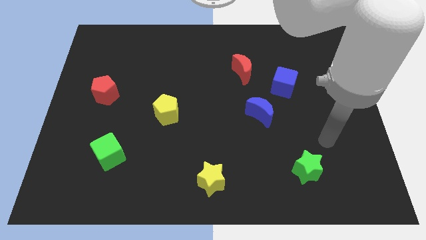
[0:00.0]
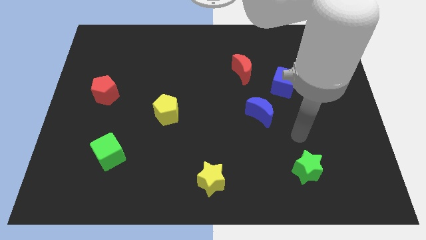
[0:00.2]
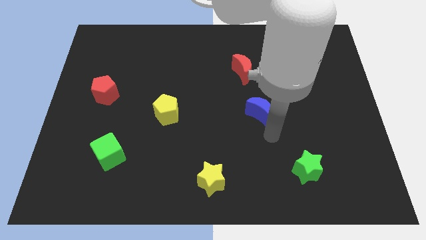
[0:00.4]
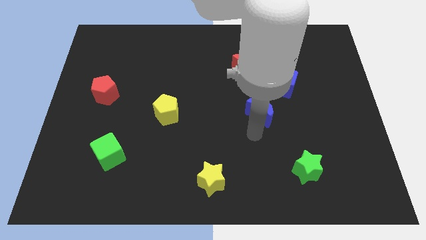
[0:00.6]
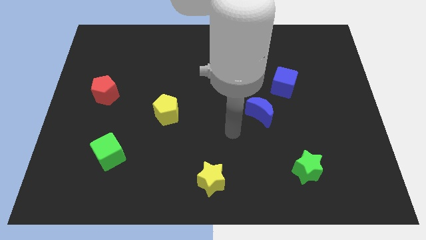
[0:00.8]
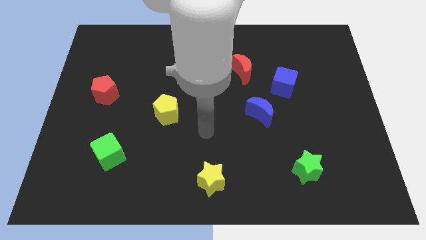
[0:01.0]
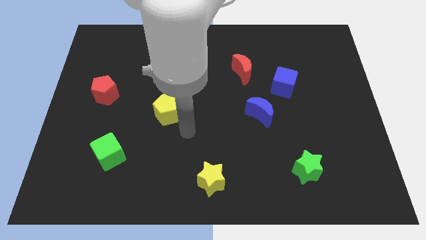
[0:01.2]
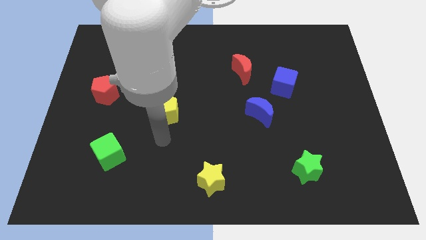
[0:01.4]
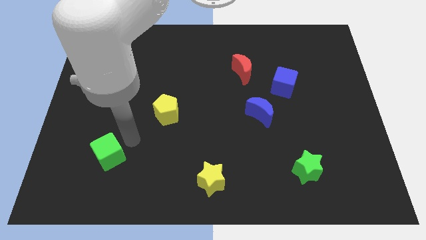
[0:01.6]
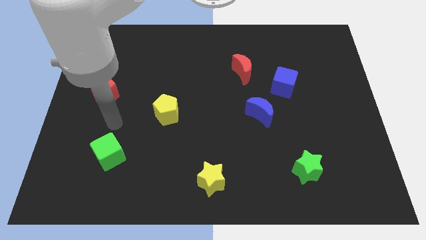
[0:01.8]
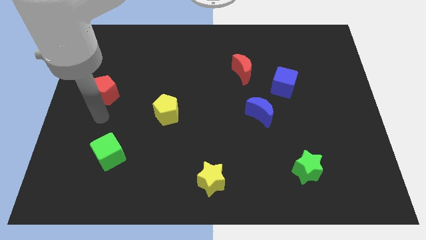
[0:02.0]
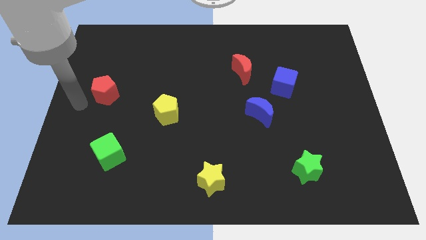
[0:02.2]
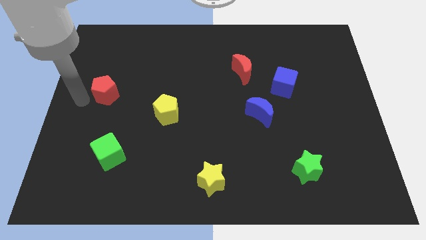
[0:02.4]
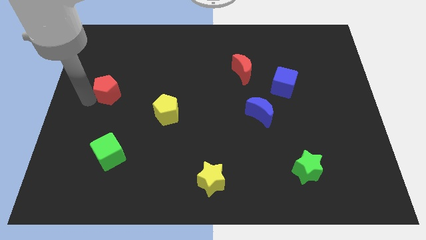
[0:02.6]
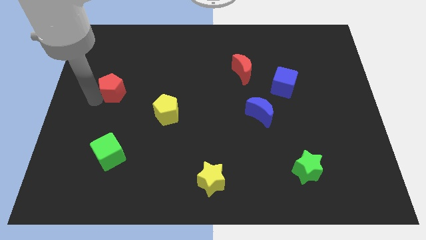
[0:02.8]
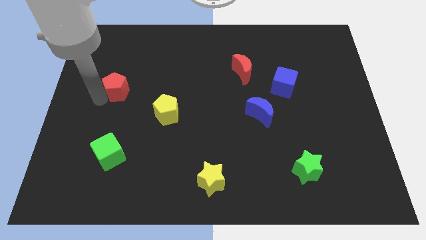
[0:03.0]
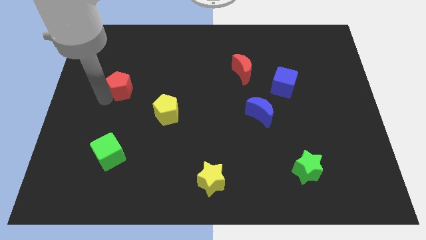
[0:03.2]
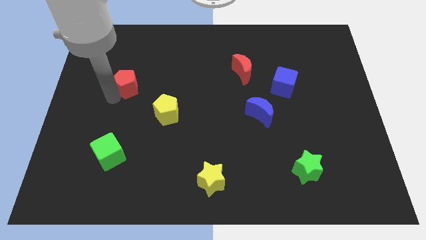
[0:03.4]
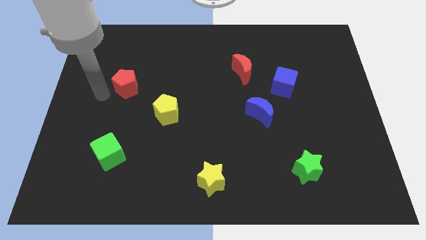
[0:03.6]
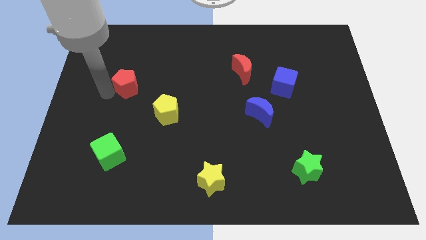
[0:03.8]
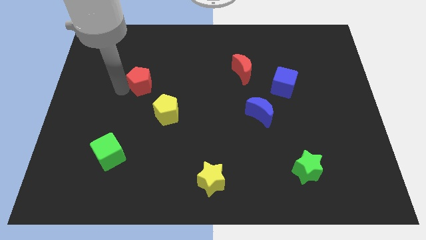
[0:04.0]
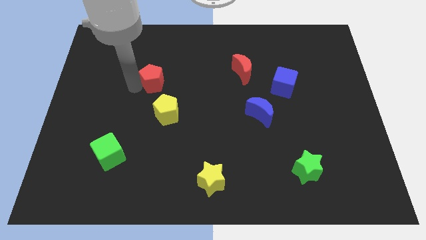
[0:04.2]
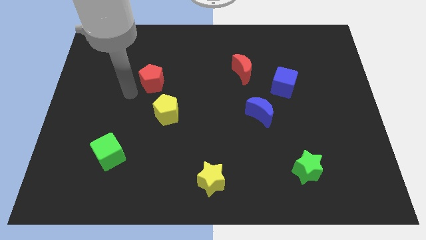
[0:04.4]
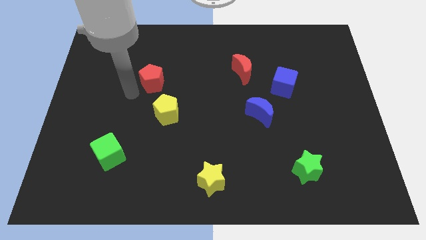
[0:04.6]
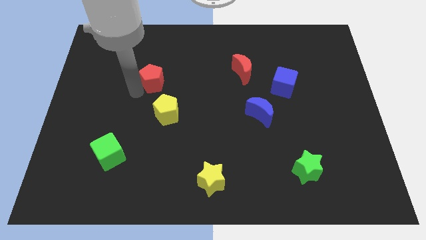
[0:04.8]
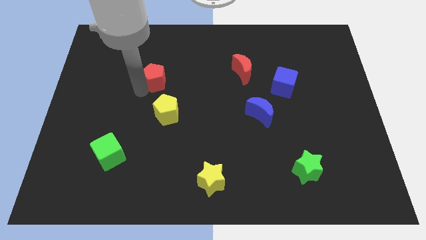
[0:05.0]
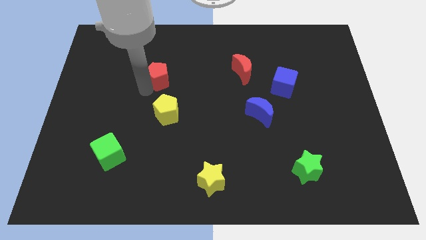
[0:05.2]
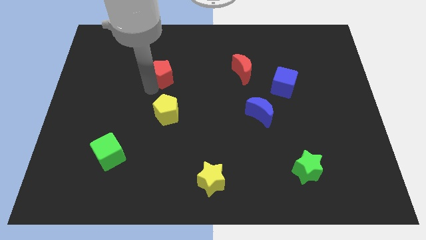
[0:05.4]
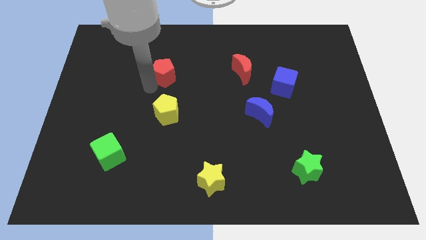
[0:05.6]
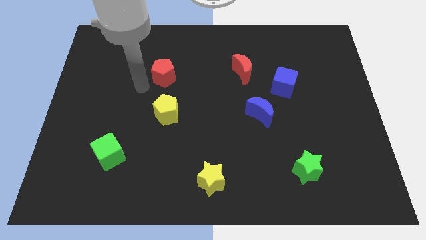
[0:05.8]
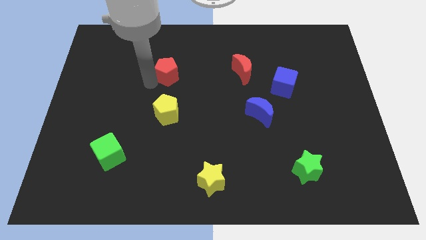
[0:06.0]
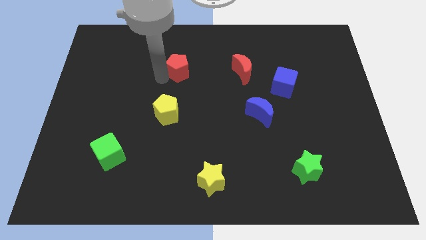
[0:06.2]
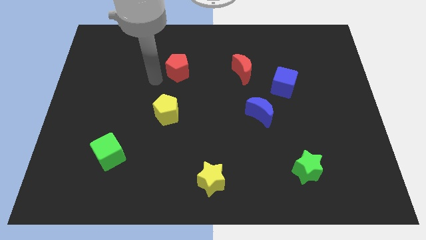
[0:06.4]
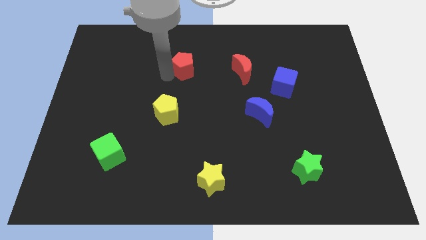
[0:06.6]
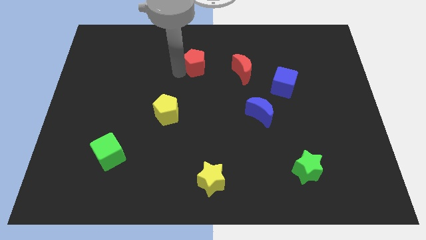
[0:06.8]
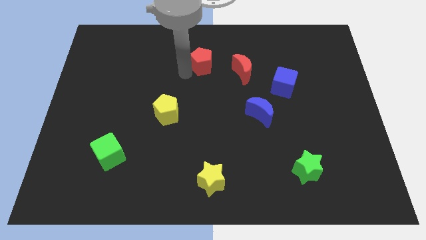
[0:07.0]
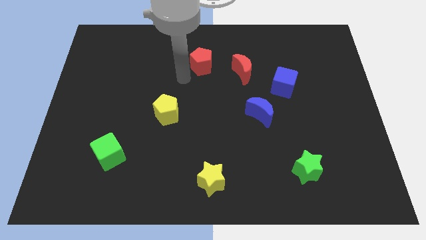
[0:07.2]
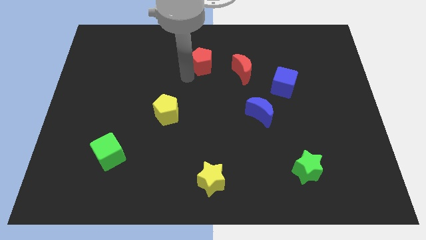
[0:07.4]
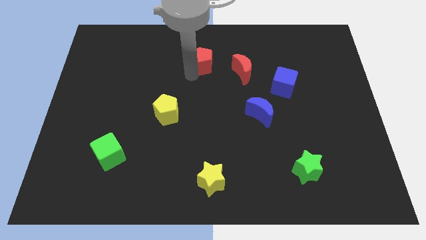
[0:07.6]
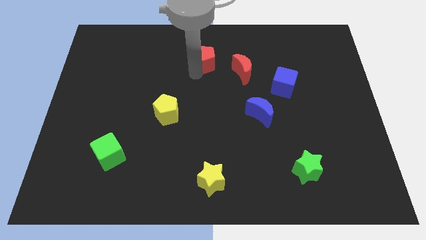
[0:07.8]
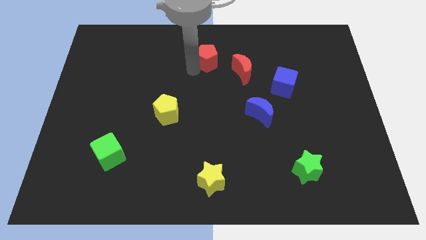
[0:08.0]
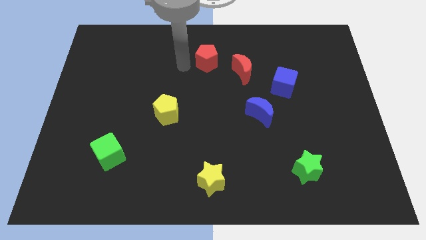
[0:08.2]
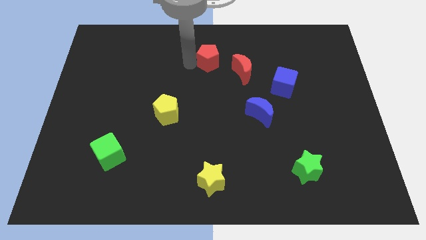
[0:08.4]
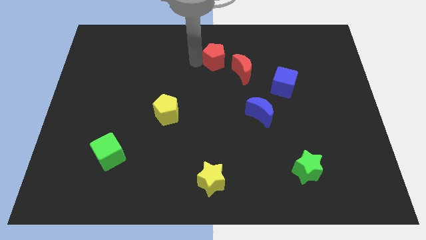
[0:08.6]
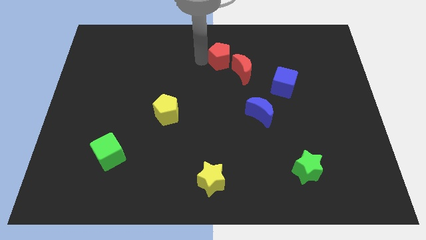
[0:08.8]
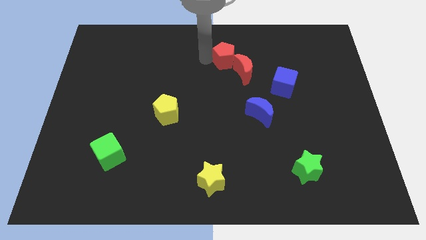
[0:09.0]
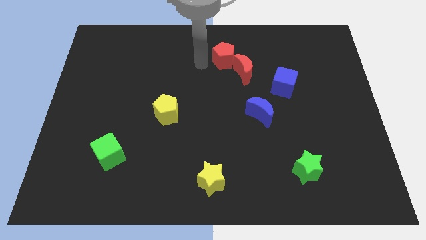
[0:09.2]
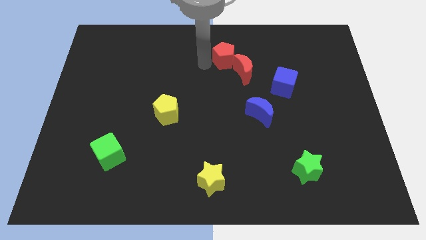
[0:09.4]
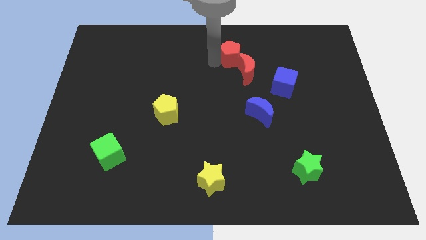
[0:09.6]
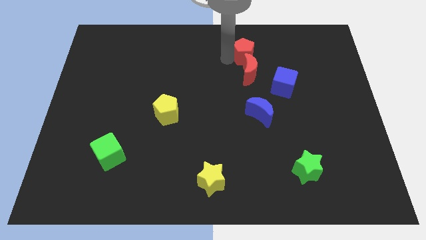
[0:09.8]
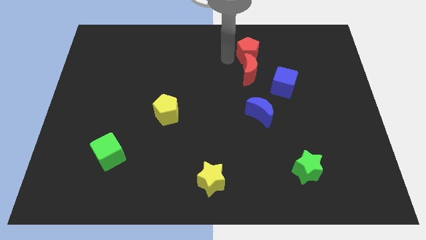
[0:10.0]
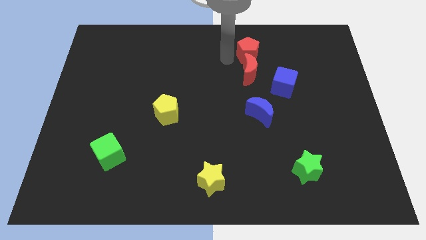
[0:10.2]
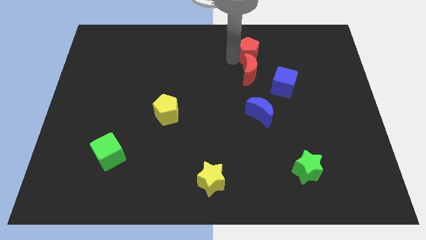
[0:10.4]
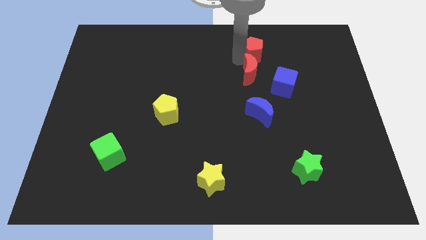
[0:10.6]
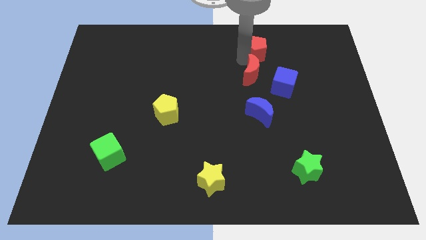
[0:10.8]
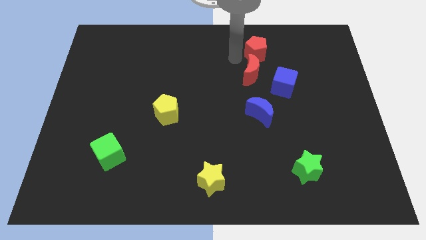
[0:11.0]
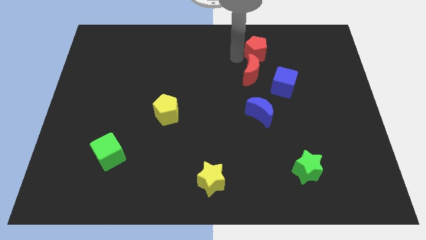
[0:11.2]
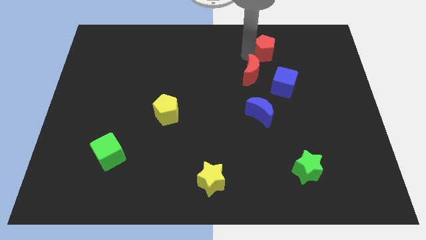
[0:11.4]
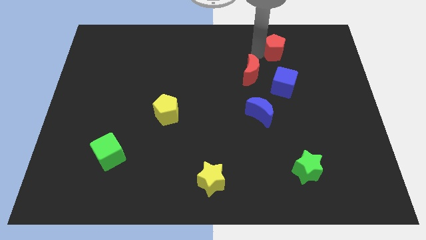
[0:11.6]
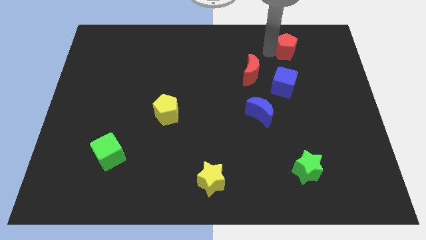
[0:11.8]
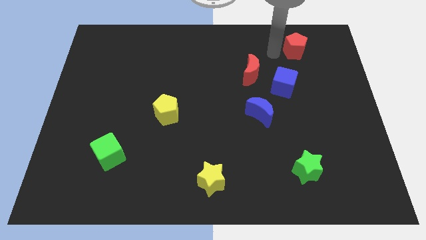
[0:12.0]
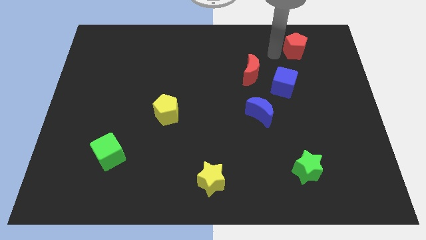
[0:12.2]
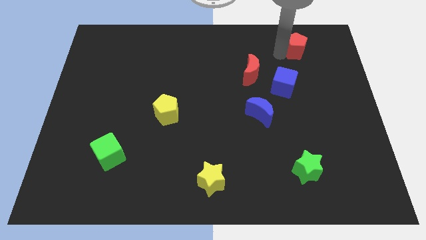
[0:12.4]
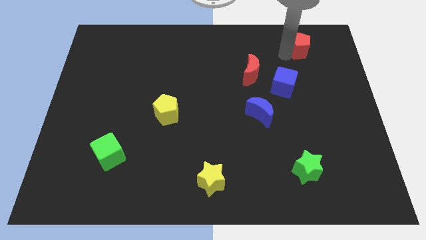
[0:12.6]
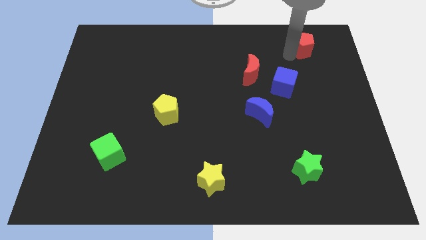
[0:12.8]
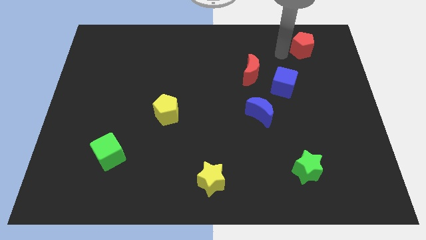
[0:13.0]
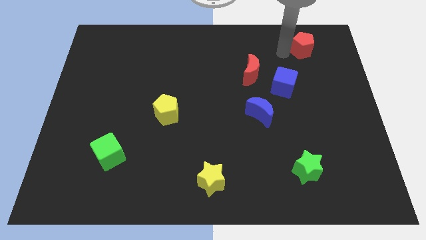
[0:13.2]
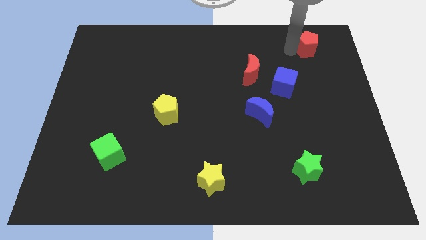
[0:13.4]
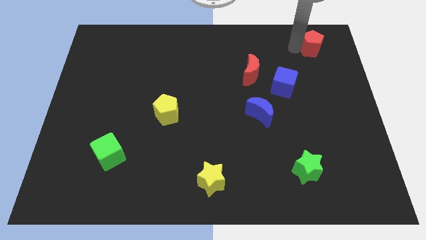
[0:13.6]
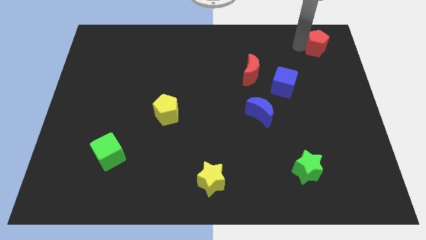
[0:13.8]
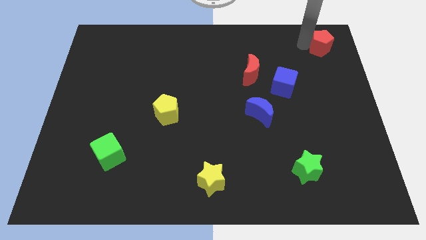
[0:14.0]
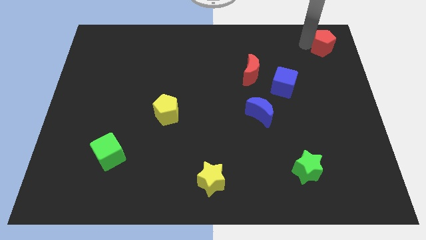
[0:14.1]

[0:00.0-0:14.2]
put the red pentagon to the upper right corner
